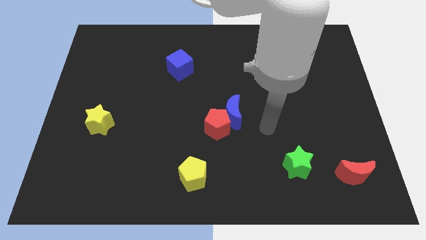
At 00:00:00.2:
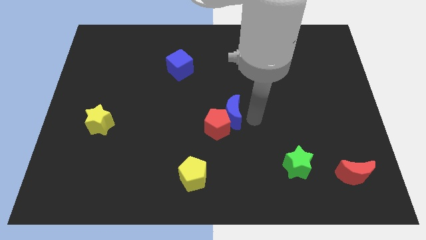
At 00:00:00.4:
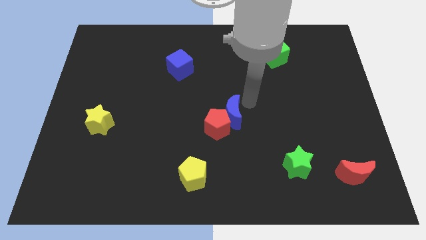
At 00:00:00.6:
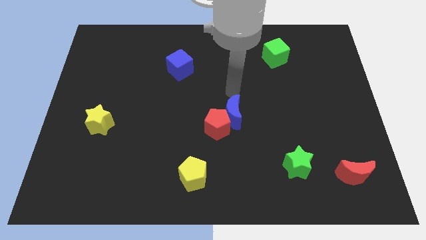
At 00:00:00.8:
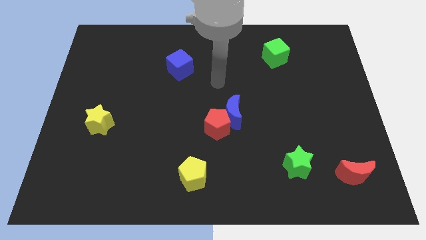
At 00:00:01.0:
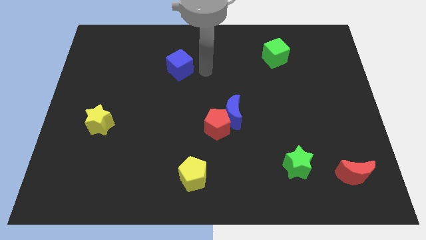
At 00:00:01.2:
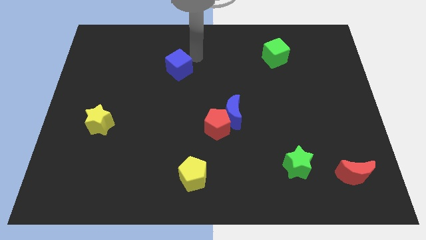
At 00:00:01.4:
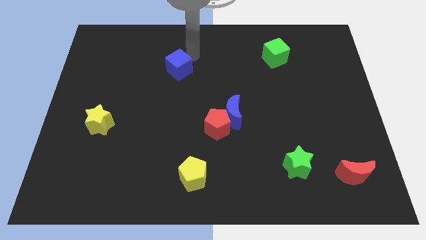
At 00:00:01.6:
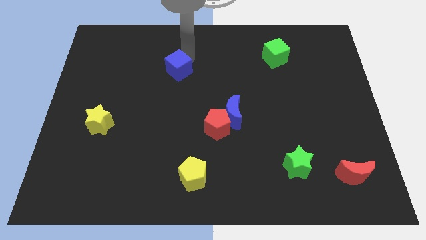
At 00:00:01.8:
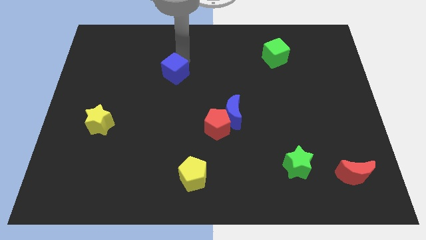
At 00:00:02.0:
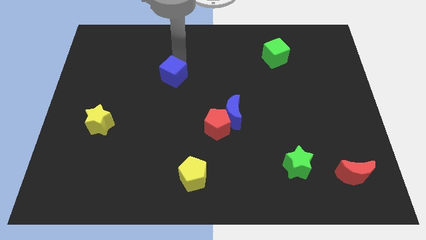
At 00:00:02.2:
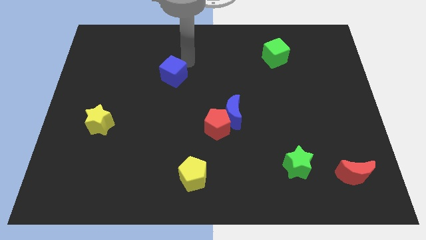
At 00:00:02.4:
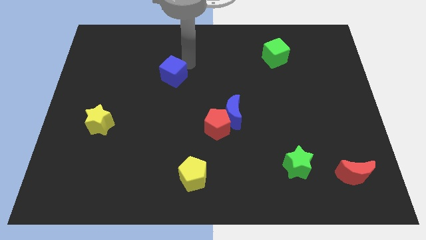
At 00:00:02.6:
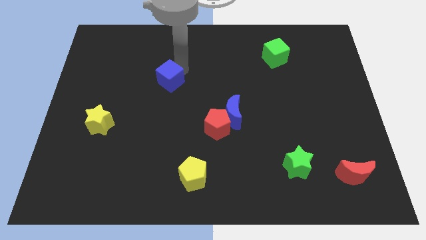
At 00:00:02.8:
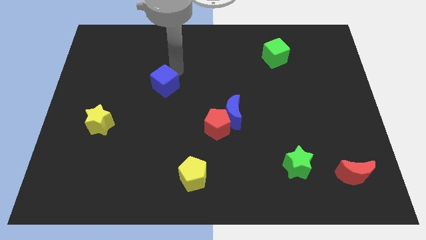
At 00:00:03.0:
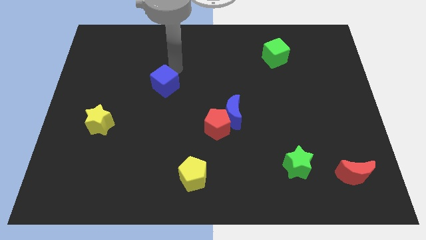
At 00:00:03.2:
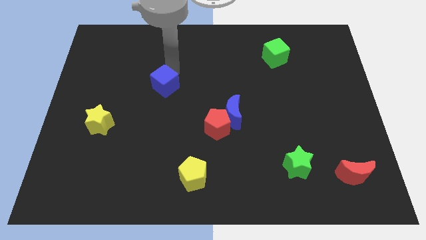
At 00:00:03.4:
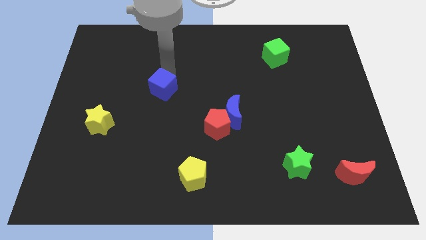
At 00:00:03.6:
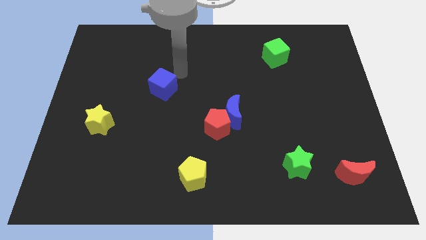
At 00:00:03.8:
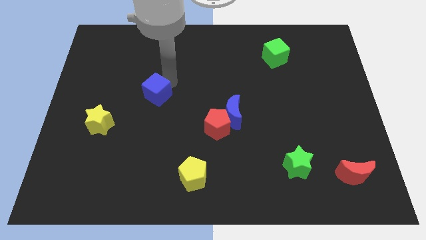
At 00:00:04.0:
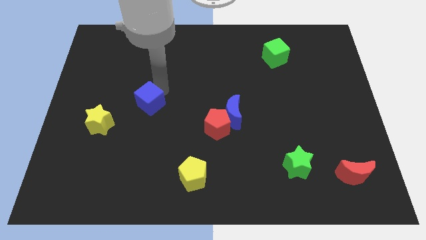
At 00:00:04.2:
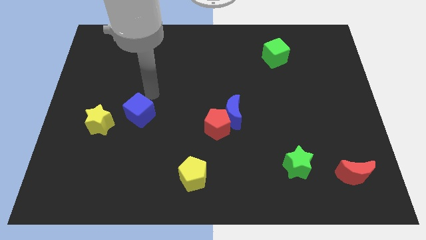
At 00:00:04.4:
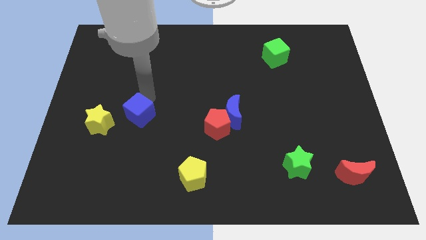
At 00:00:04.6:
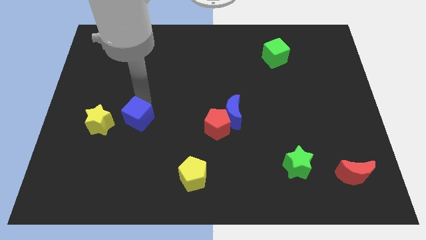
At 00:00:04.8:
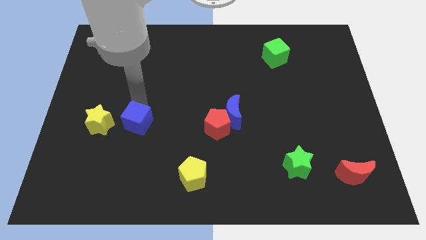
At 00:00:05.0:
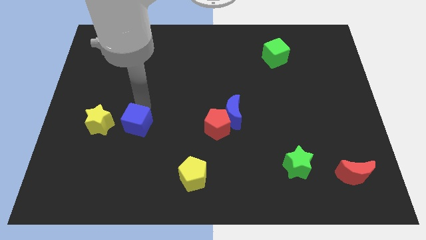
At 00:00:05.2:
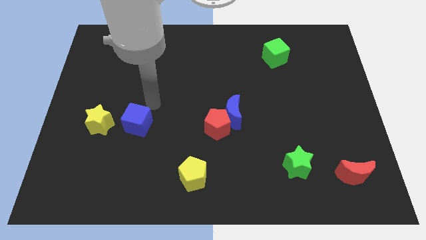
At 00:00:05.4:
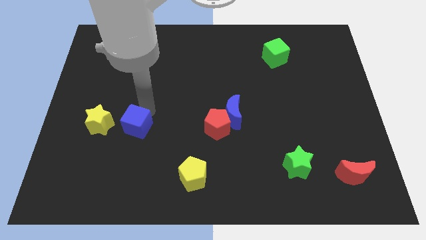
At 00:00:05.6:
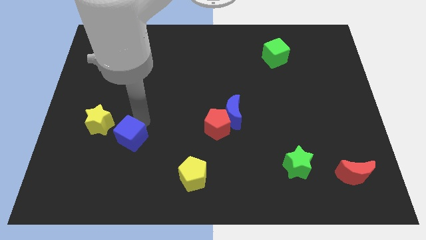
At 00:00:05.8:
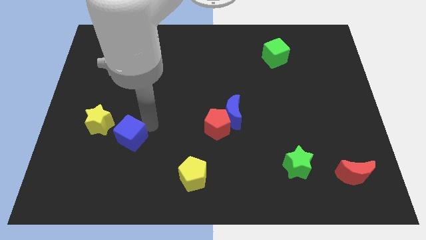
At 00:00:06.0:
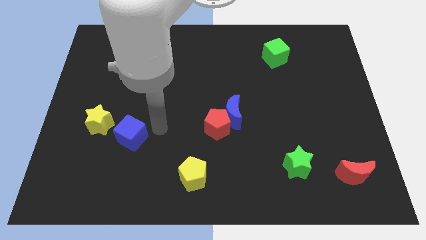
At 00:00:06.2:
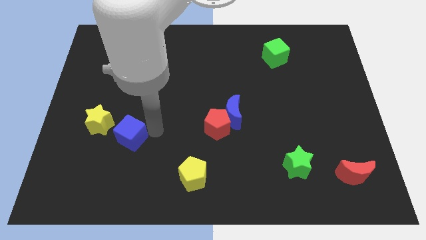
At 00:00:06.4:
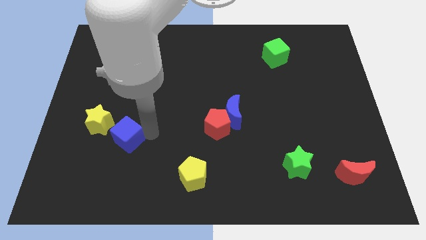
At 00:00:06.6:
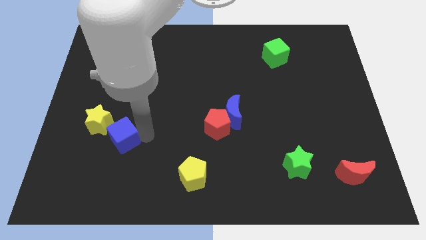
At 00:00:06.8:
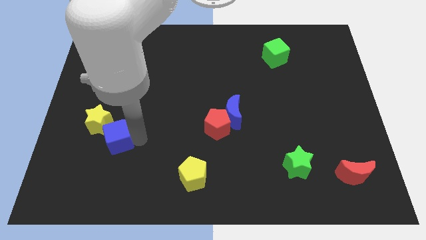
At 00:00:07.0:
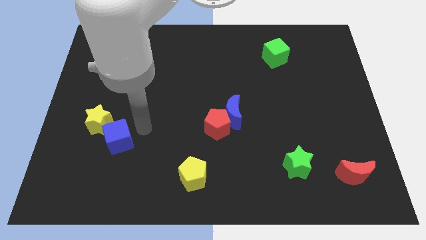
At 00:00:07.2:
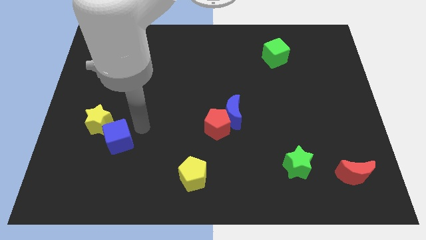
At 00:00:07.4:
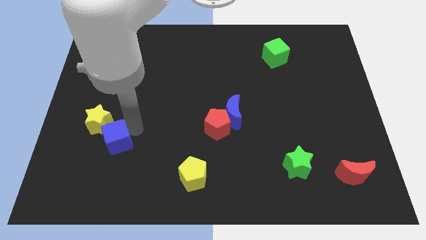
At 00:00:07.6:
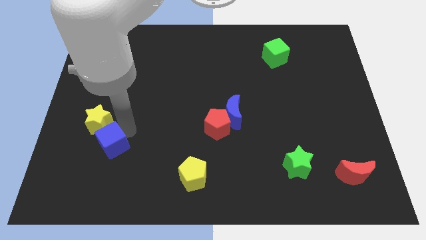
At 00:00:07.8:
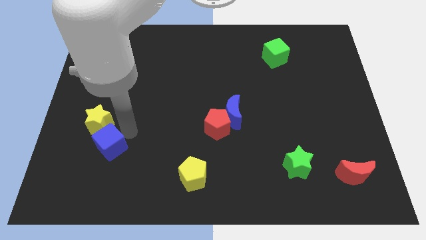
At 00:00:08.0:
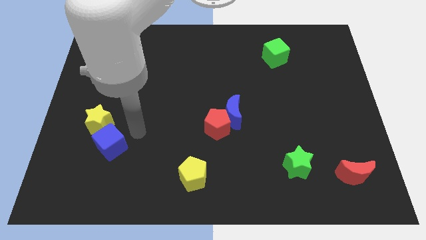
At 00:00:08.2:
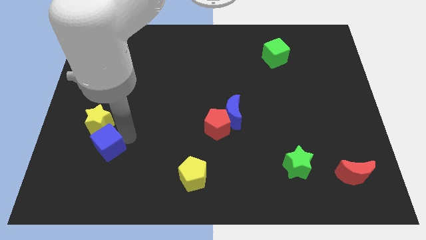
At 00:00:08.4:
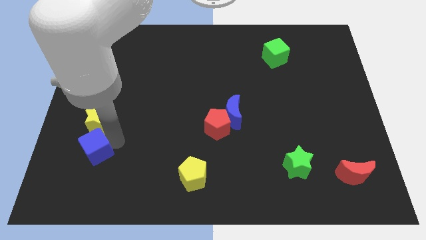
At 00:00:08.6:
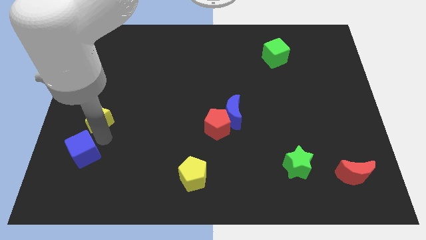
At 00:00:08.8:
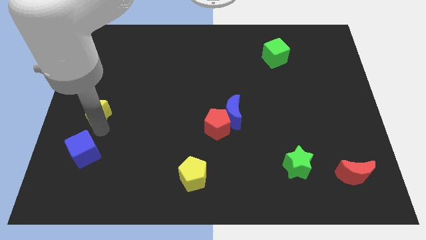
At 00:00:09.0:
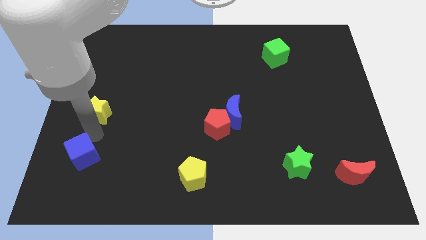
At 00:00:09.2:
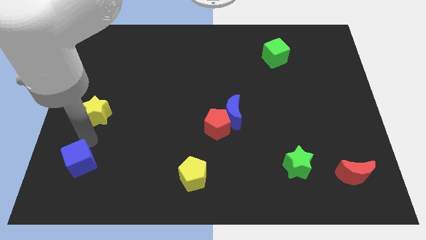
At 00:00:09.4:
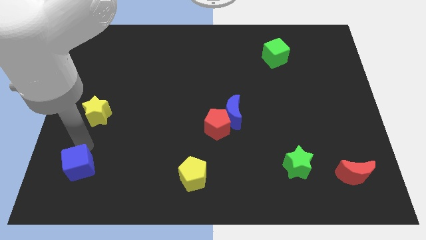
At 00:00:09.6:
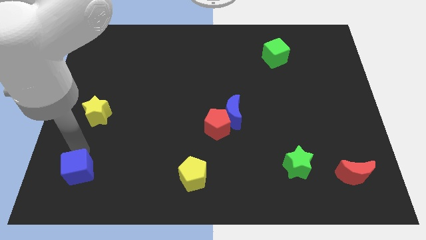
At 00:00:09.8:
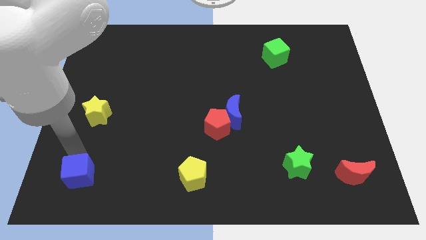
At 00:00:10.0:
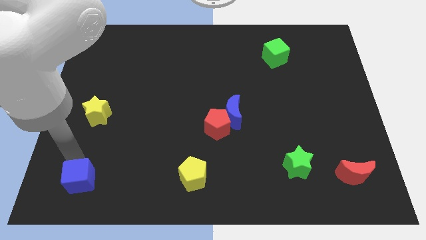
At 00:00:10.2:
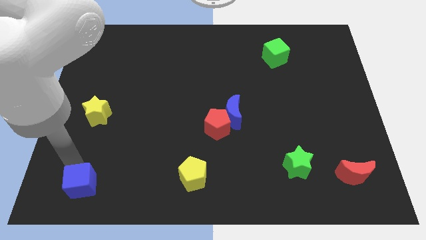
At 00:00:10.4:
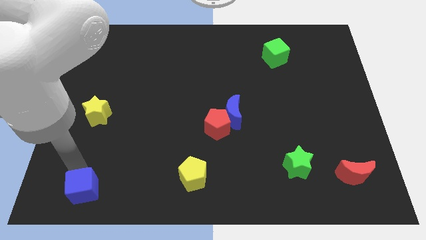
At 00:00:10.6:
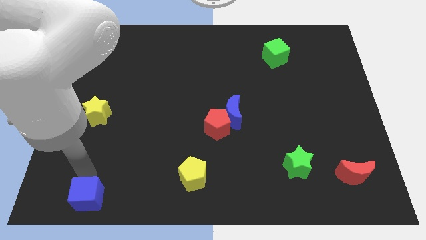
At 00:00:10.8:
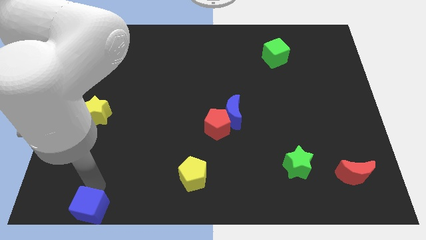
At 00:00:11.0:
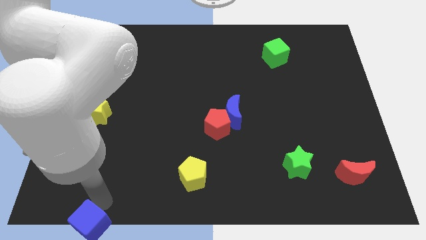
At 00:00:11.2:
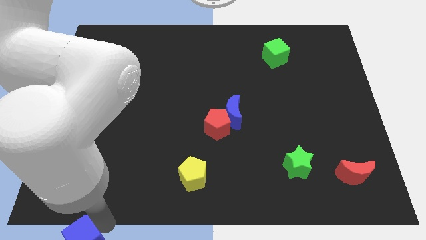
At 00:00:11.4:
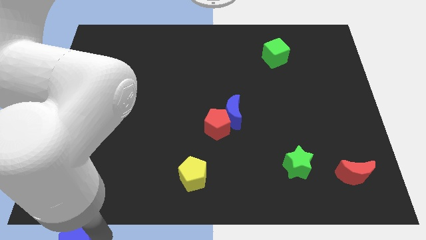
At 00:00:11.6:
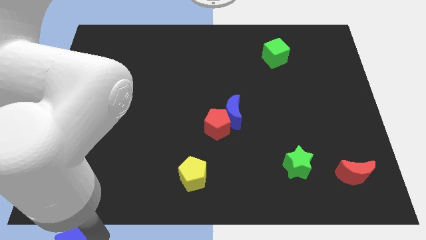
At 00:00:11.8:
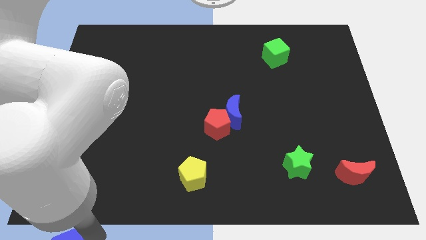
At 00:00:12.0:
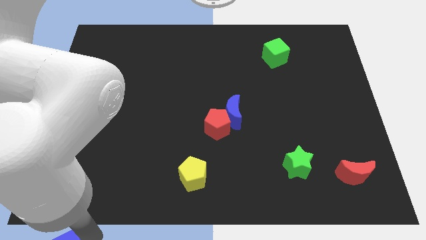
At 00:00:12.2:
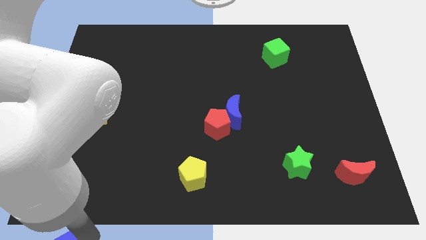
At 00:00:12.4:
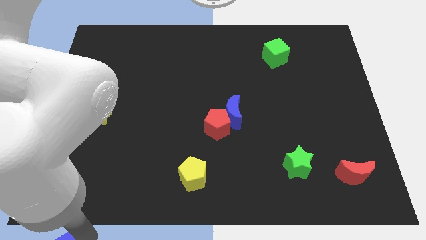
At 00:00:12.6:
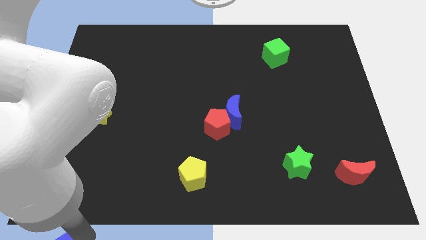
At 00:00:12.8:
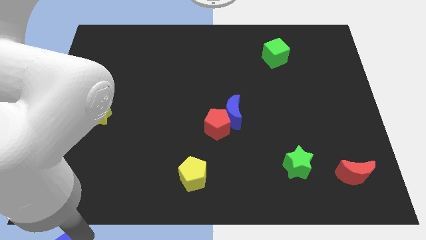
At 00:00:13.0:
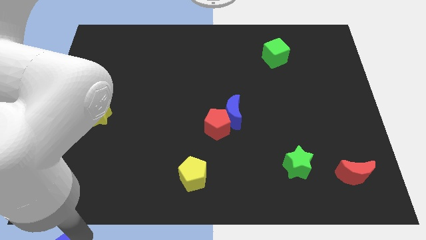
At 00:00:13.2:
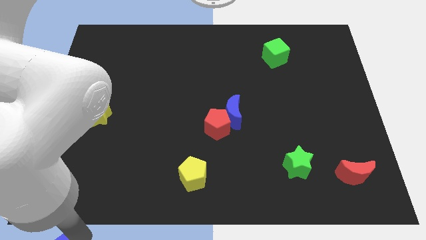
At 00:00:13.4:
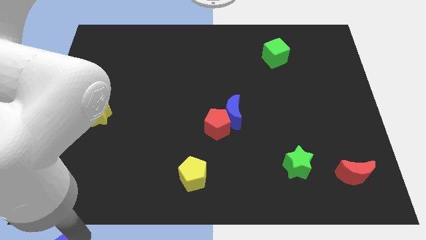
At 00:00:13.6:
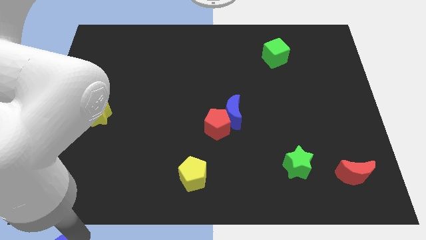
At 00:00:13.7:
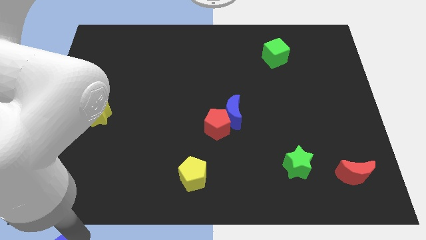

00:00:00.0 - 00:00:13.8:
slide the blue cube to the bottom left corner
